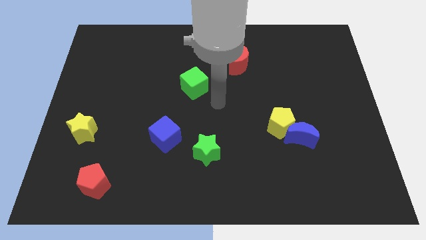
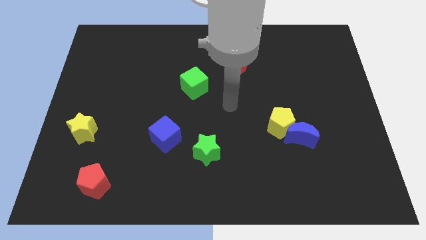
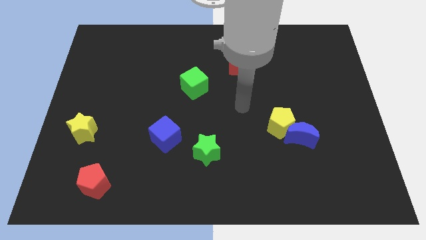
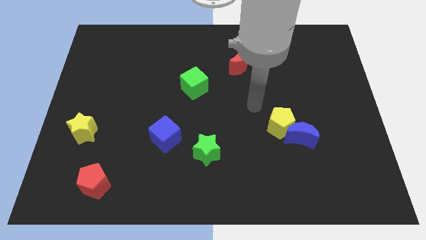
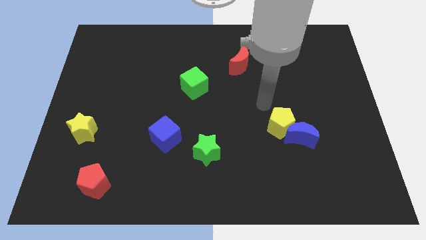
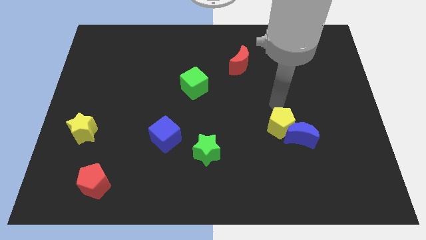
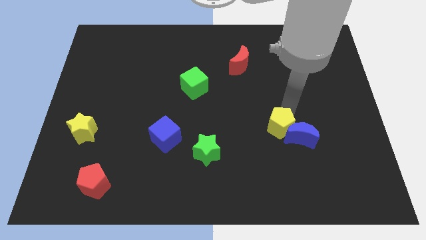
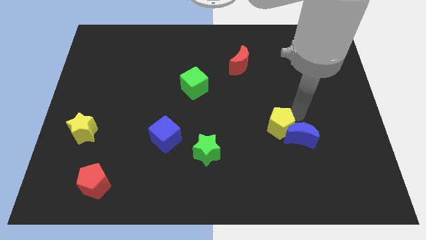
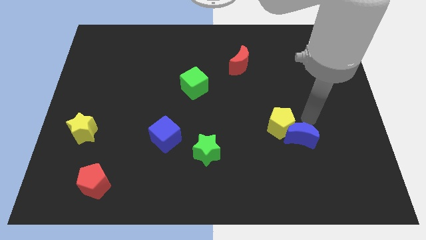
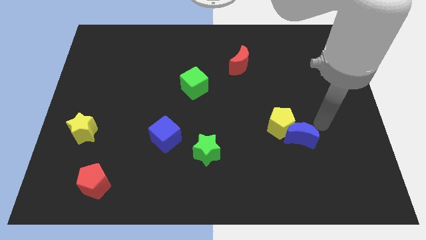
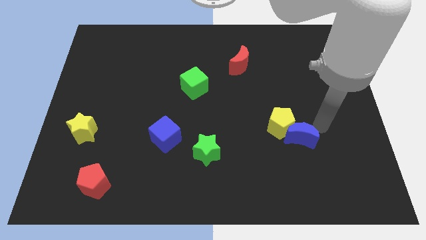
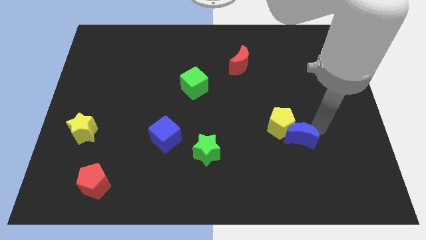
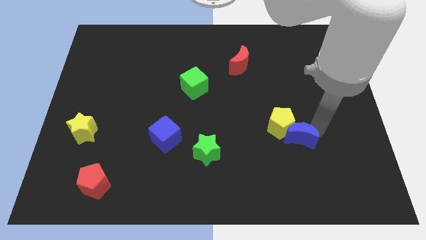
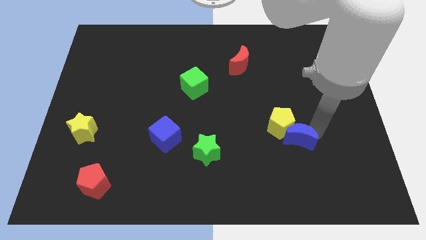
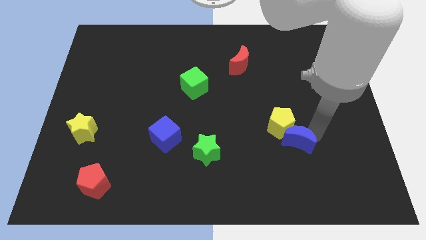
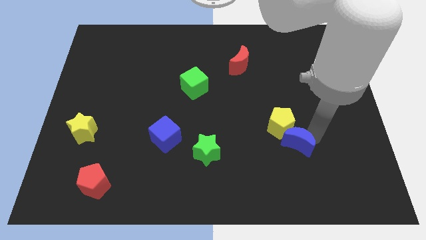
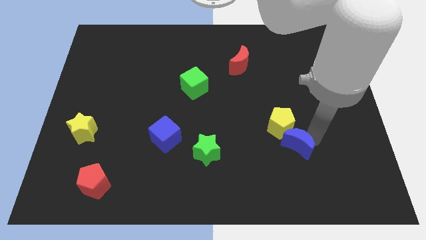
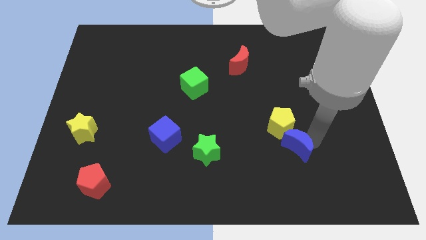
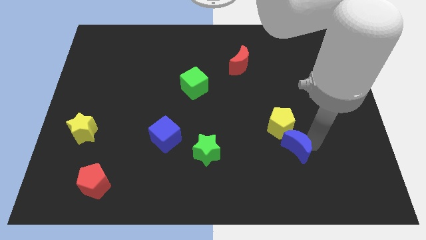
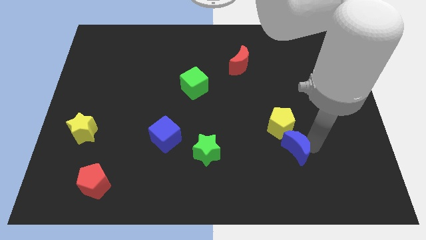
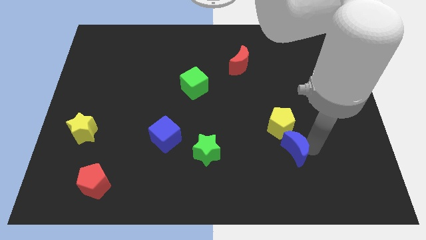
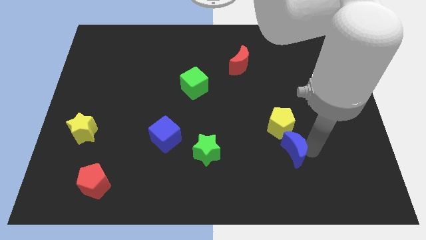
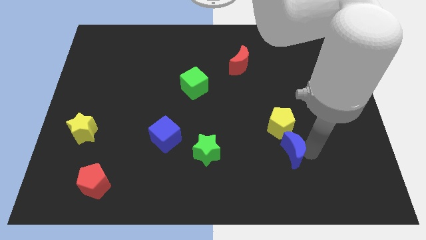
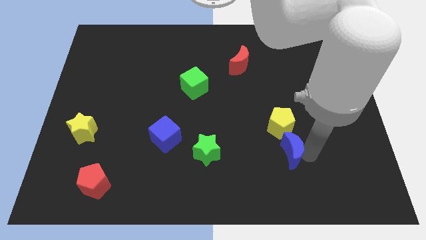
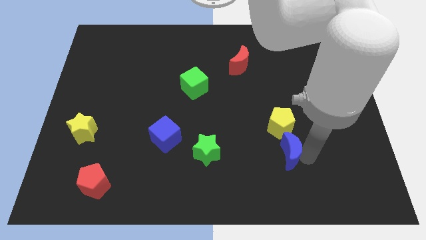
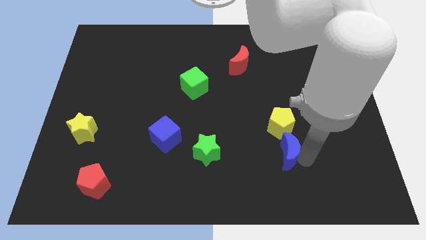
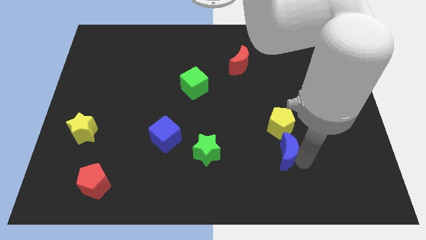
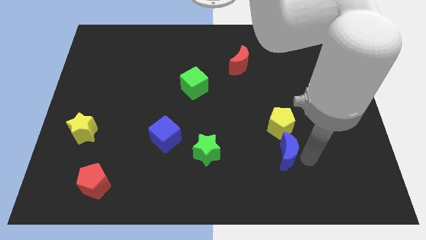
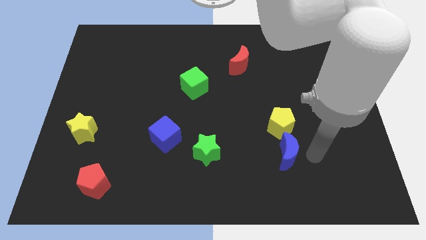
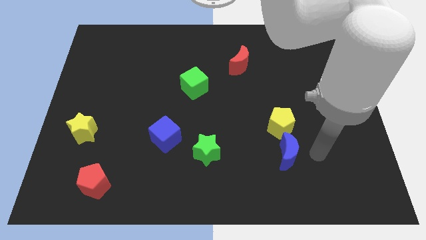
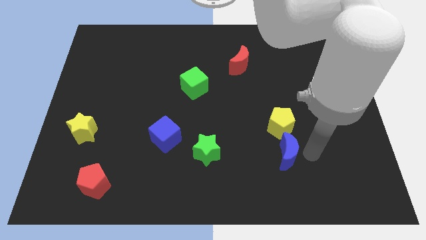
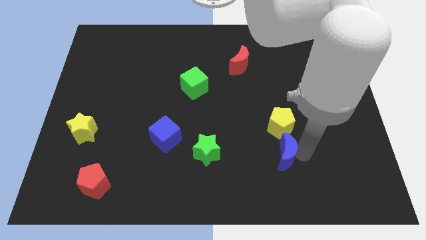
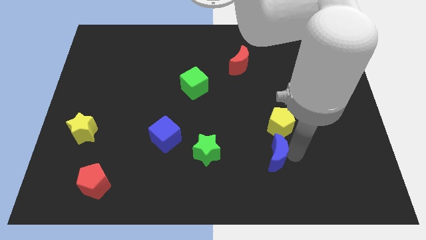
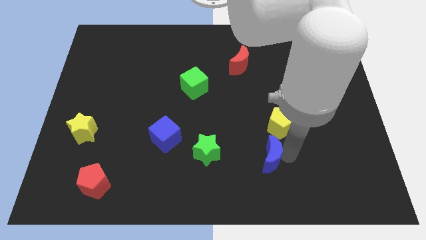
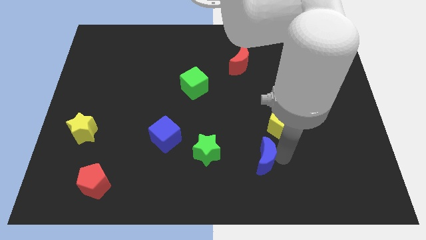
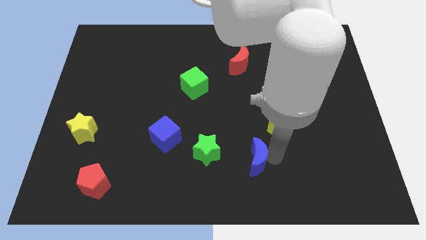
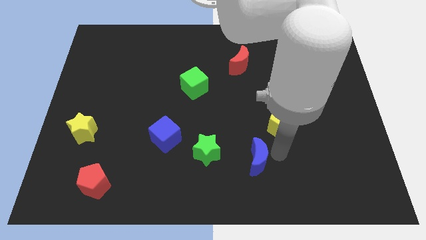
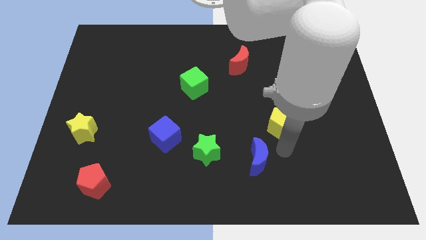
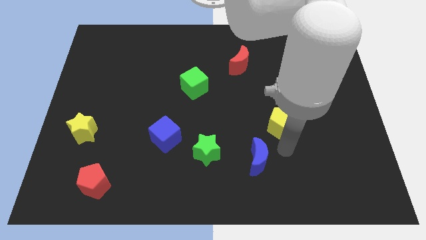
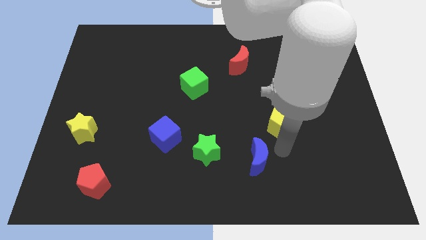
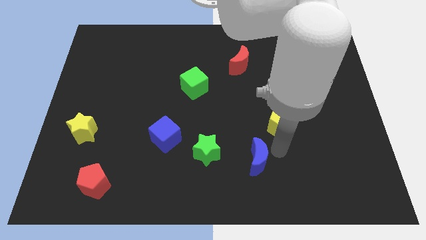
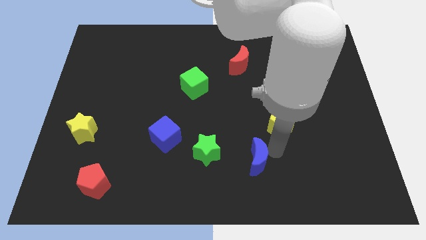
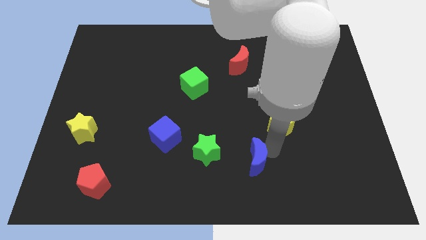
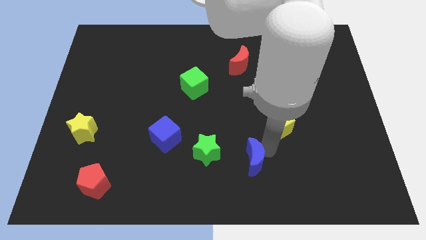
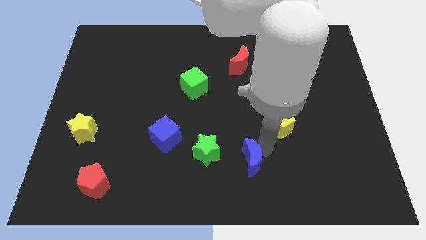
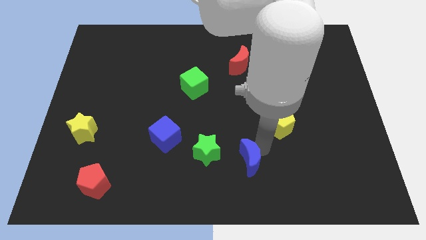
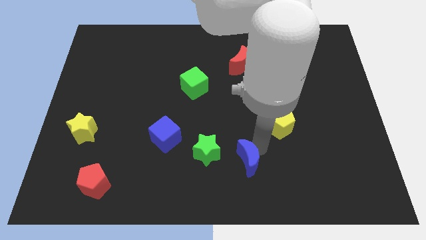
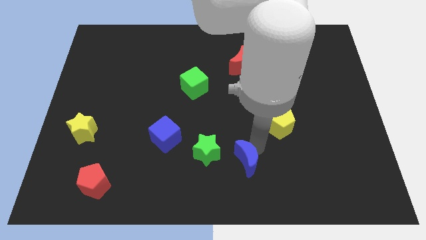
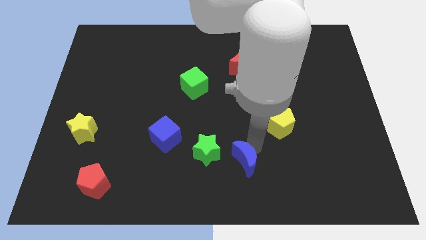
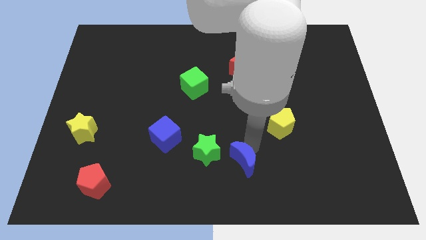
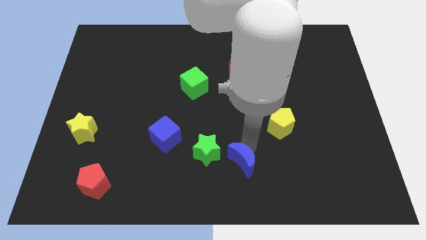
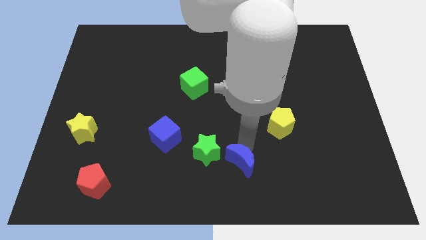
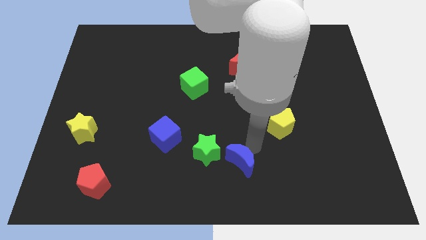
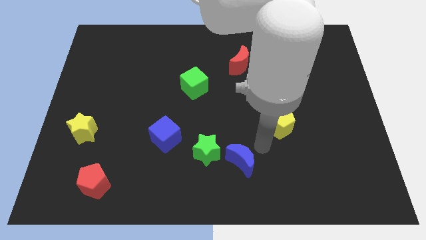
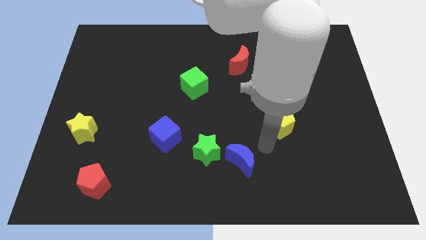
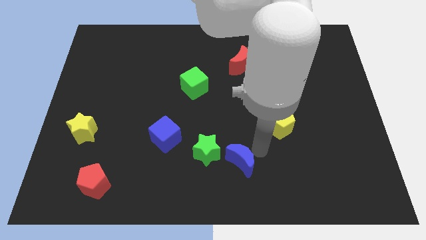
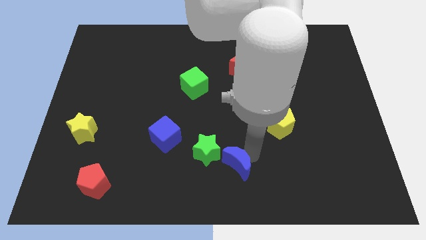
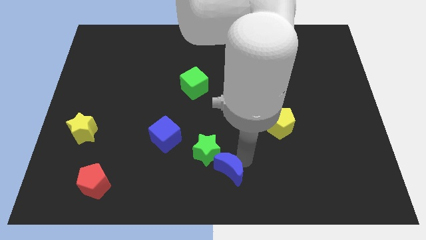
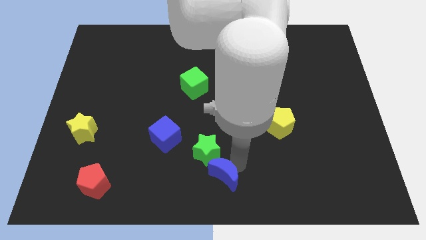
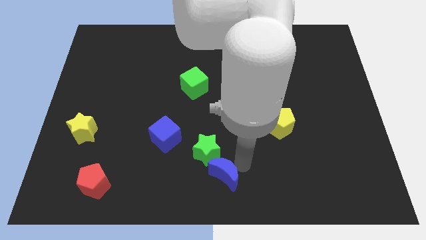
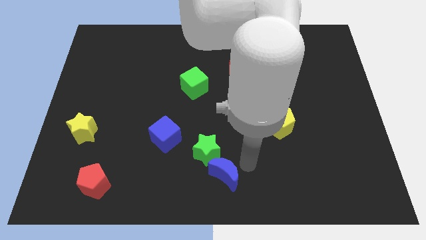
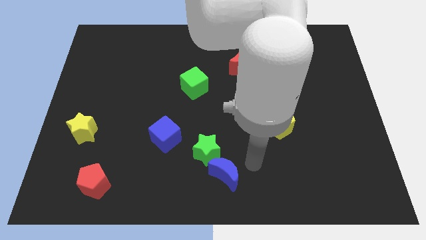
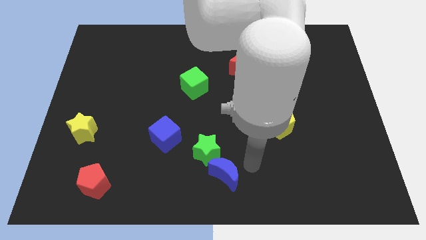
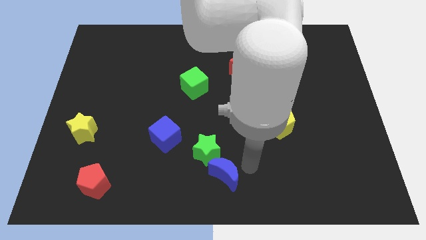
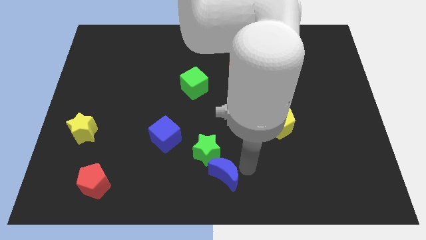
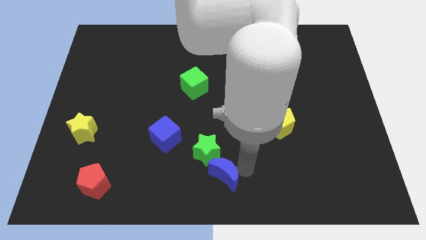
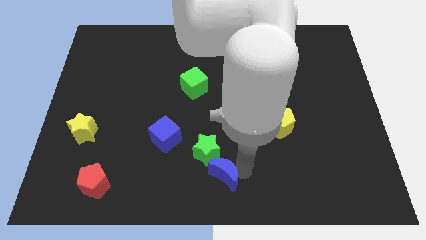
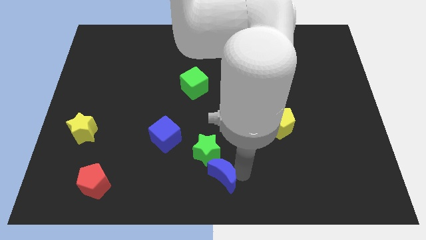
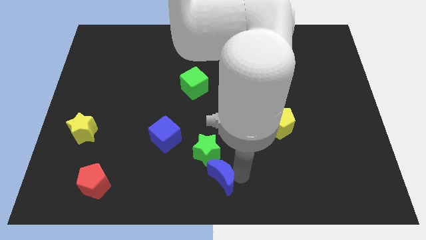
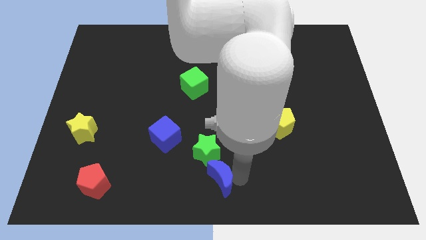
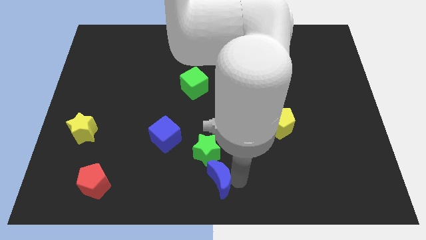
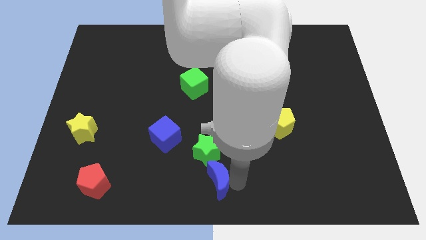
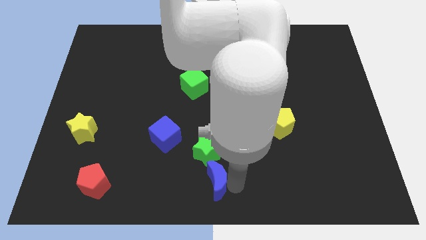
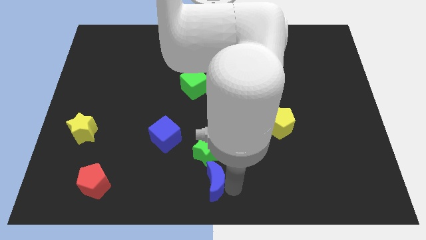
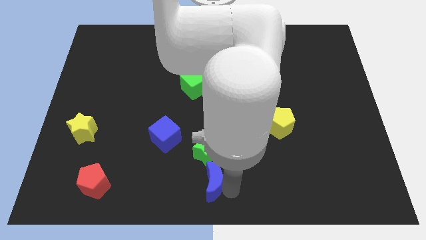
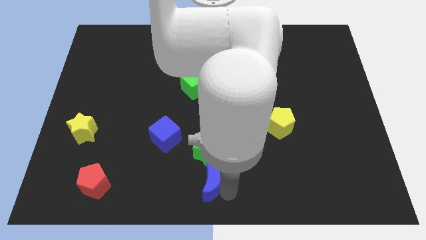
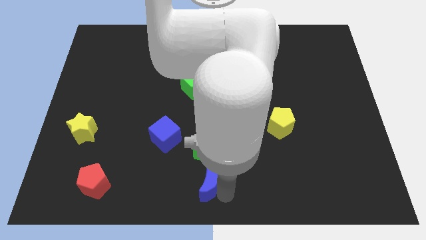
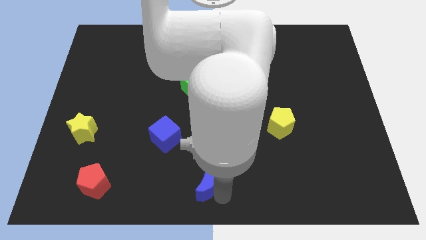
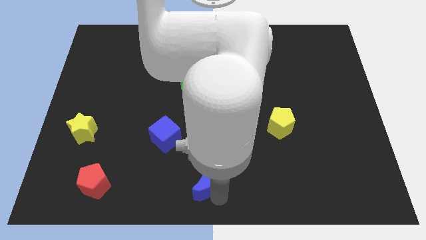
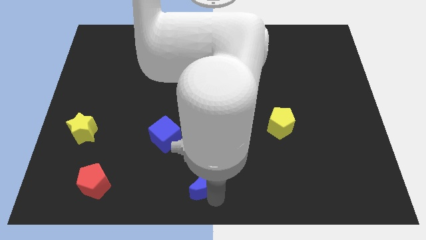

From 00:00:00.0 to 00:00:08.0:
push the blue moon to the bottom left of the green star
